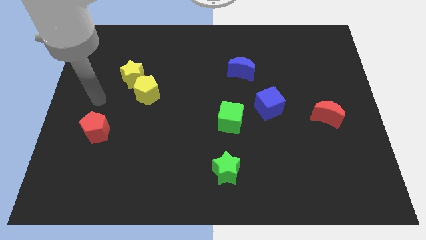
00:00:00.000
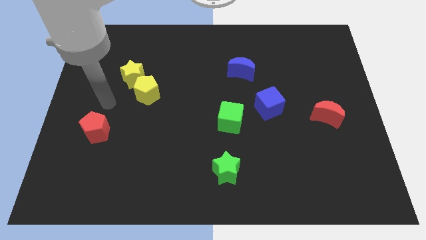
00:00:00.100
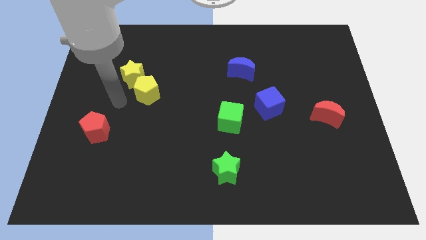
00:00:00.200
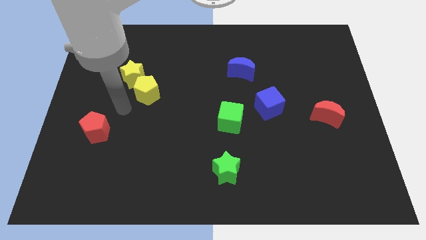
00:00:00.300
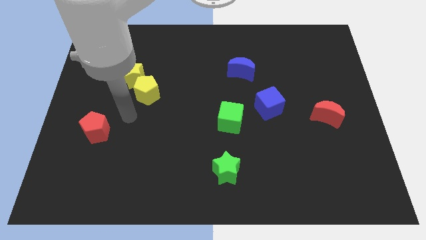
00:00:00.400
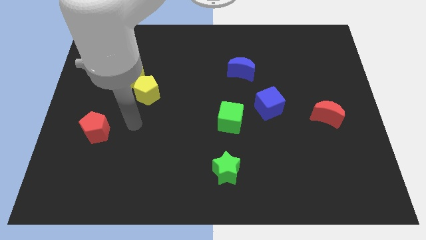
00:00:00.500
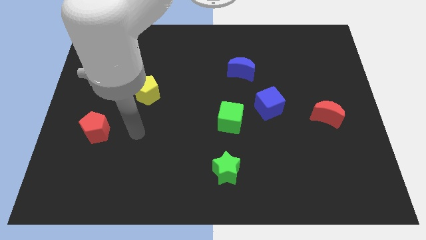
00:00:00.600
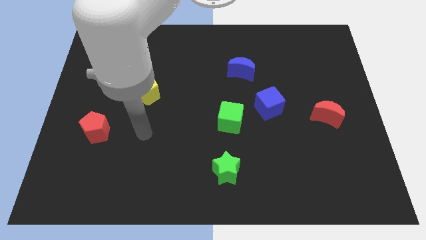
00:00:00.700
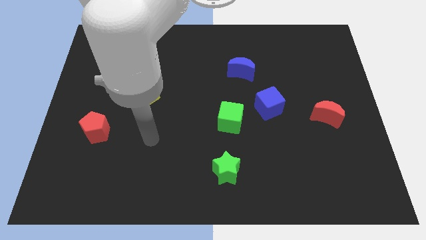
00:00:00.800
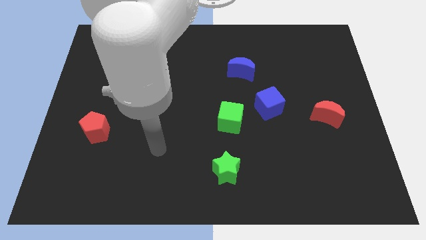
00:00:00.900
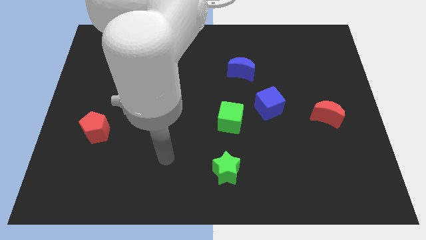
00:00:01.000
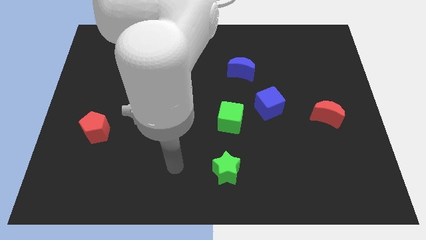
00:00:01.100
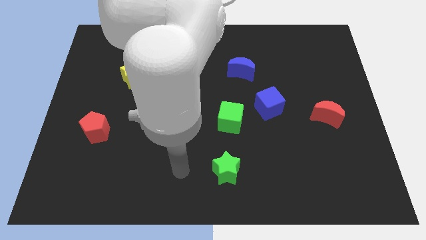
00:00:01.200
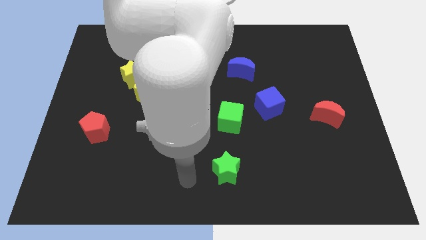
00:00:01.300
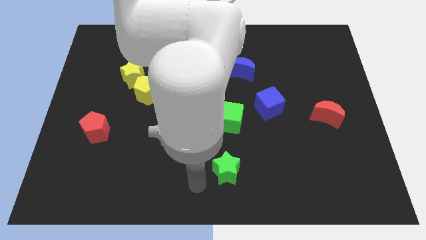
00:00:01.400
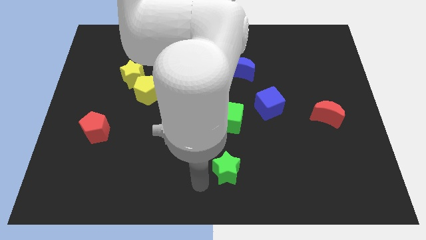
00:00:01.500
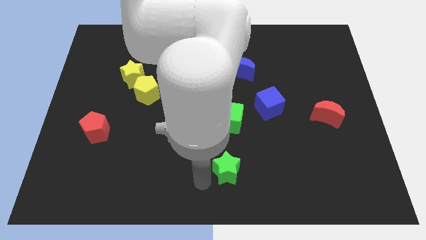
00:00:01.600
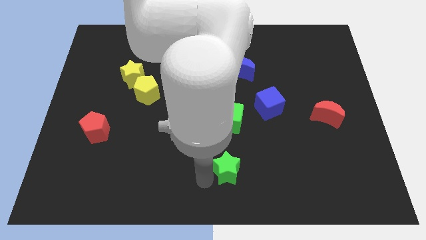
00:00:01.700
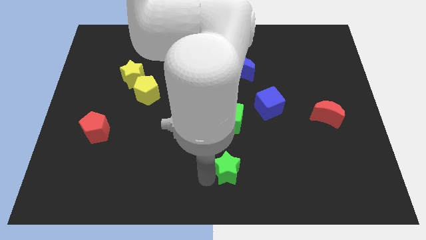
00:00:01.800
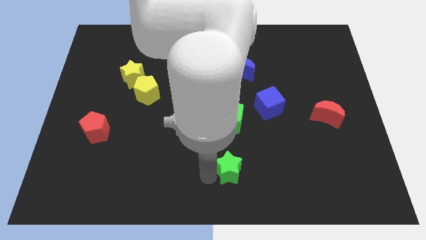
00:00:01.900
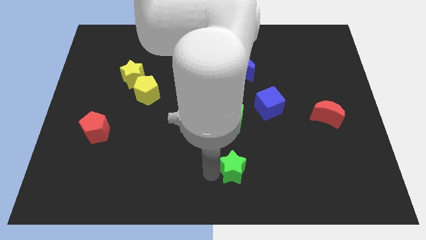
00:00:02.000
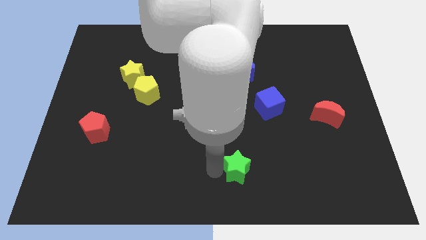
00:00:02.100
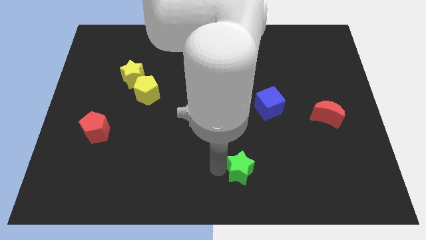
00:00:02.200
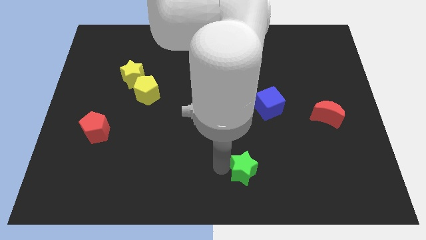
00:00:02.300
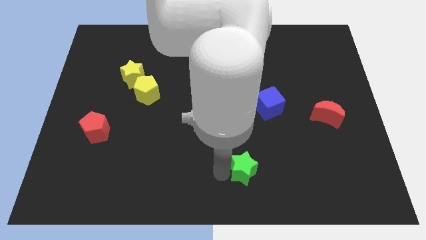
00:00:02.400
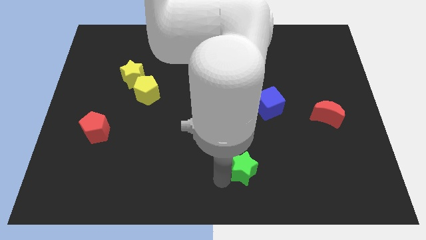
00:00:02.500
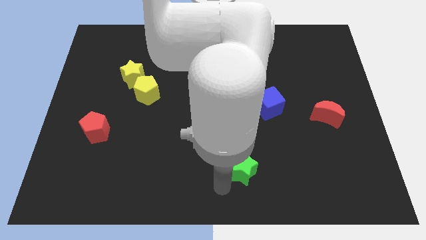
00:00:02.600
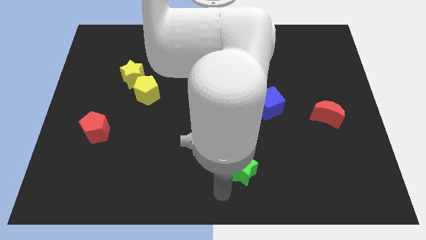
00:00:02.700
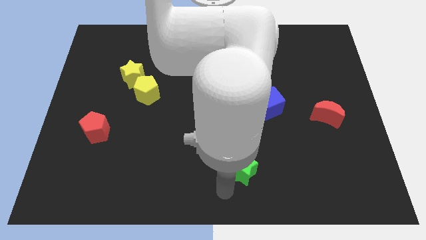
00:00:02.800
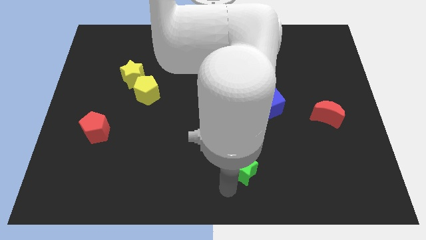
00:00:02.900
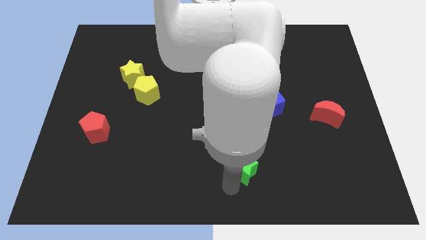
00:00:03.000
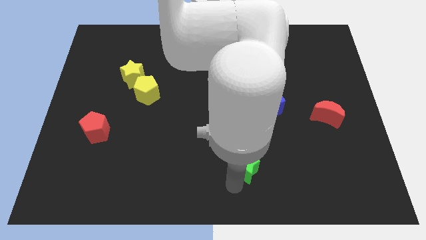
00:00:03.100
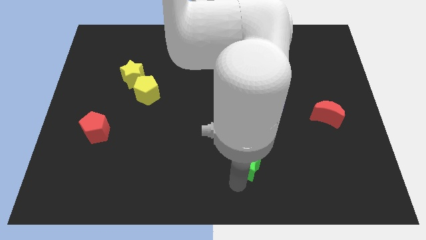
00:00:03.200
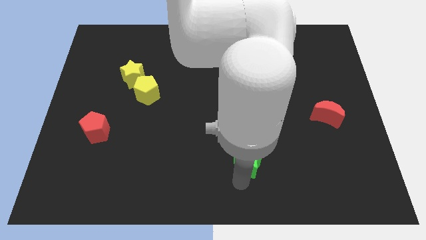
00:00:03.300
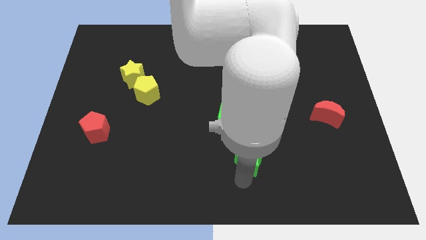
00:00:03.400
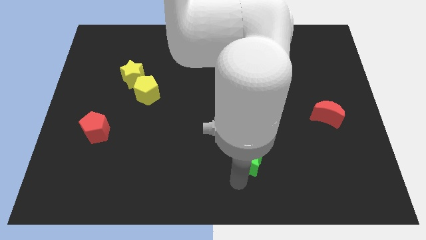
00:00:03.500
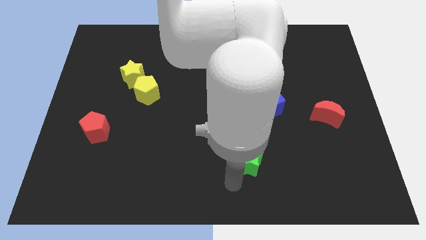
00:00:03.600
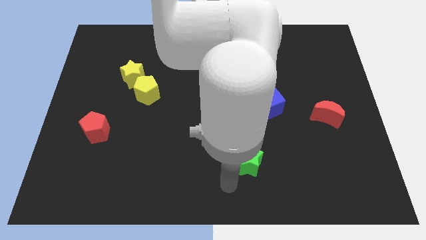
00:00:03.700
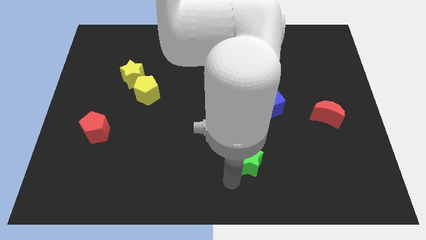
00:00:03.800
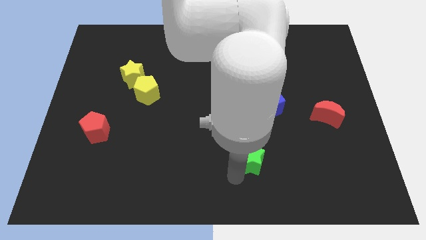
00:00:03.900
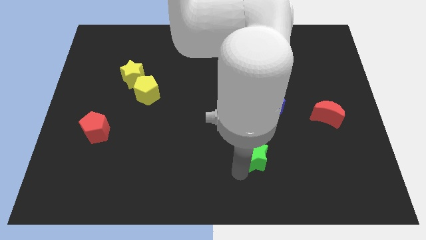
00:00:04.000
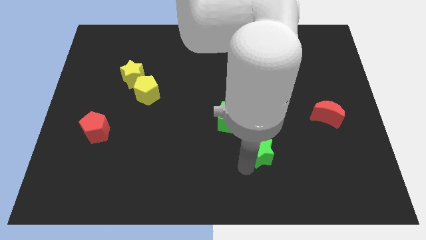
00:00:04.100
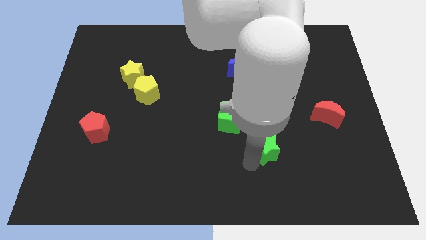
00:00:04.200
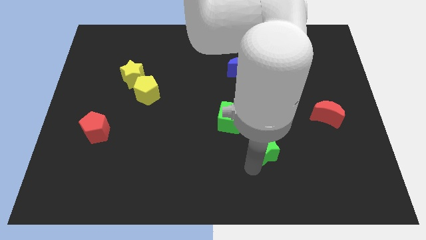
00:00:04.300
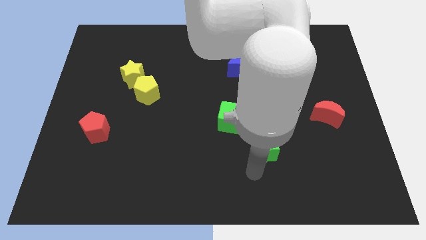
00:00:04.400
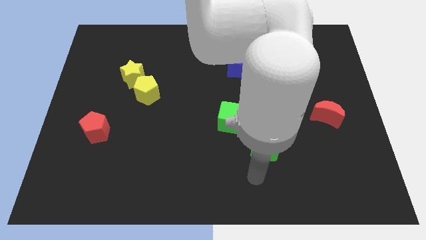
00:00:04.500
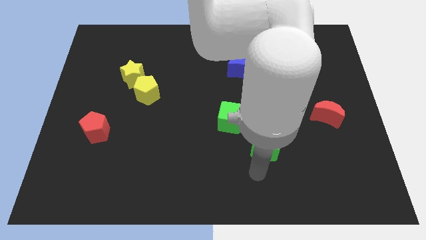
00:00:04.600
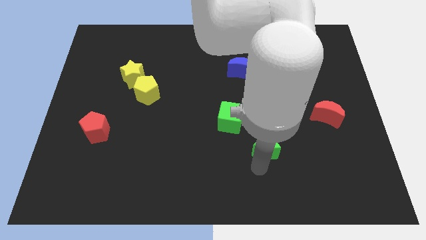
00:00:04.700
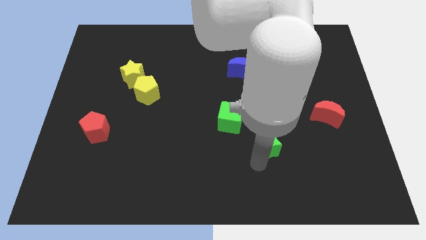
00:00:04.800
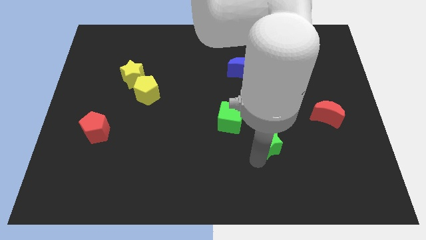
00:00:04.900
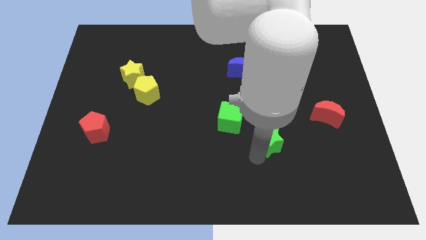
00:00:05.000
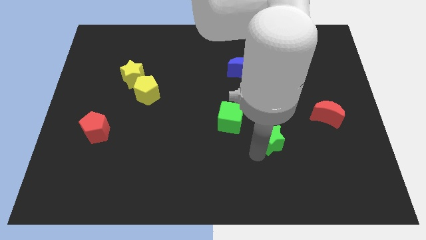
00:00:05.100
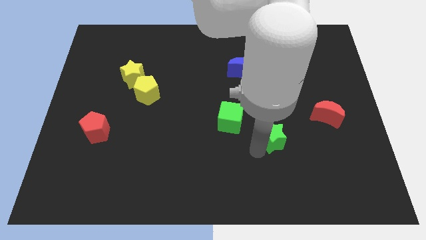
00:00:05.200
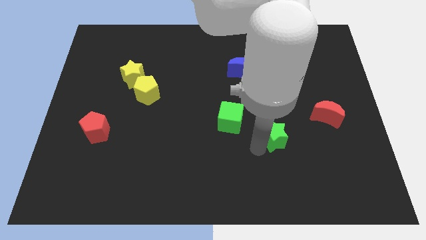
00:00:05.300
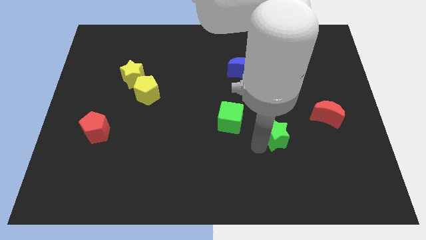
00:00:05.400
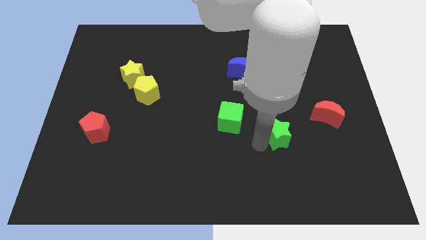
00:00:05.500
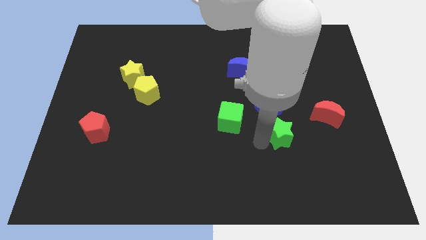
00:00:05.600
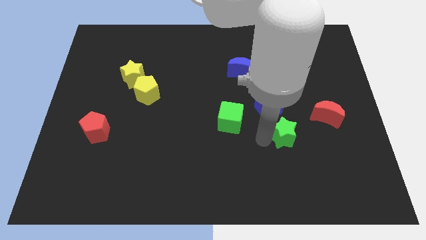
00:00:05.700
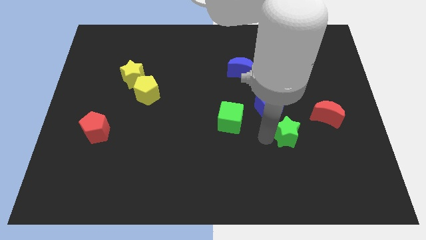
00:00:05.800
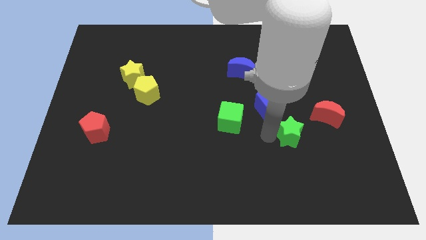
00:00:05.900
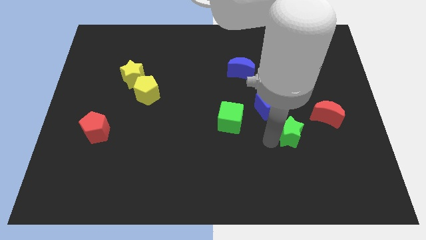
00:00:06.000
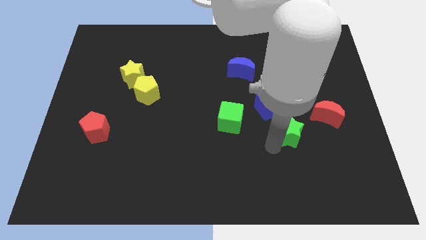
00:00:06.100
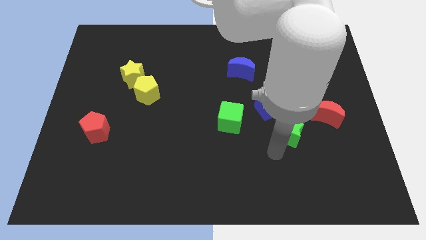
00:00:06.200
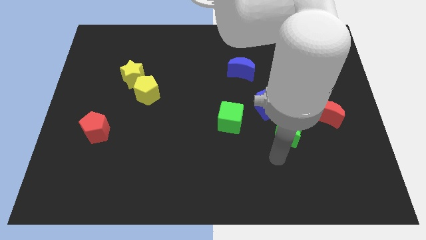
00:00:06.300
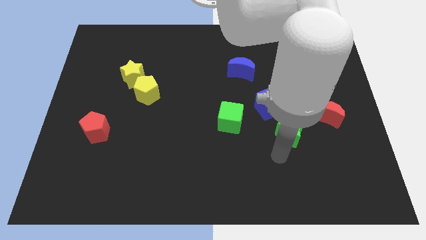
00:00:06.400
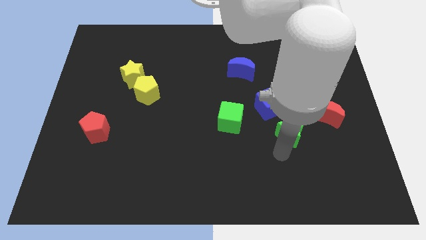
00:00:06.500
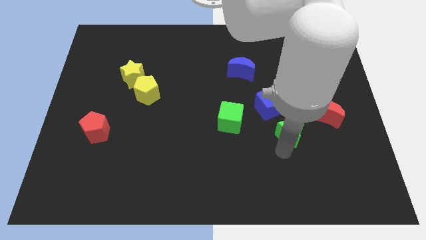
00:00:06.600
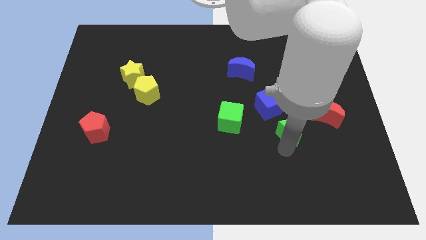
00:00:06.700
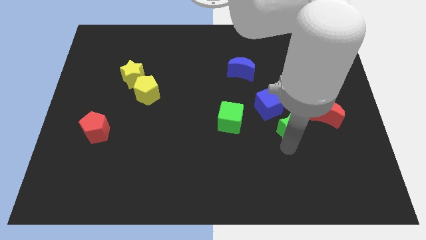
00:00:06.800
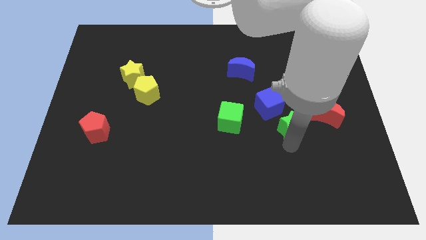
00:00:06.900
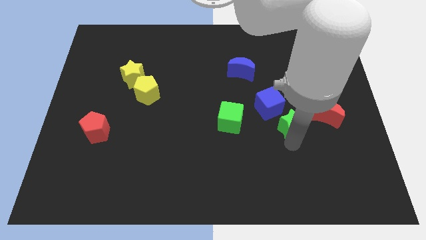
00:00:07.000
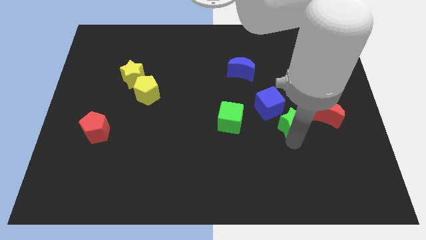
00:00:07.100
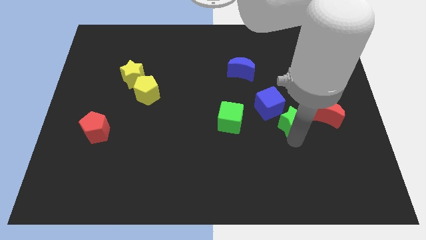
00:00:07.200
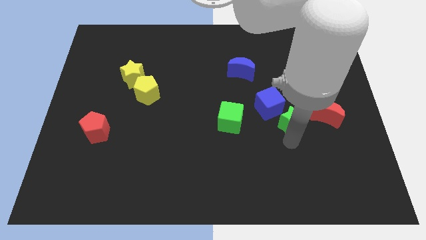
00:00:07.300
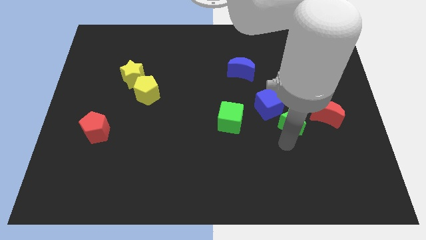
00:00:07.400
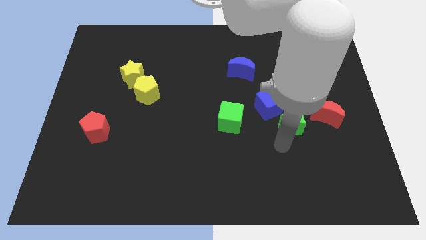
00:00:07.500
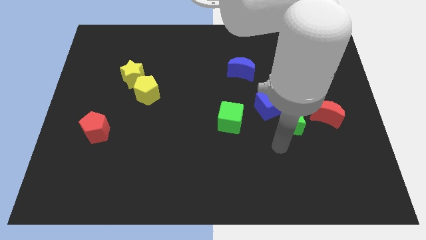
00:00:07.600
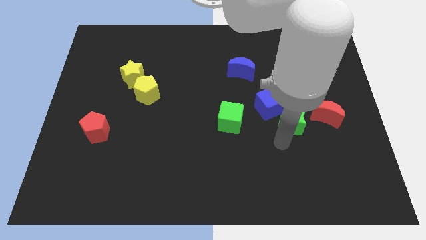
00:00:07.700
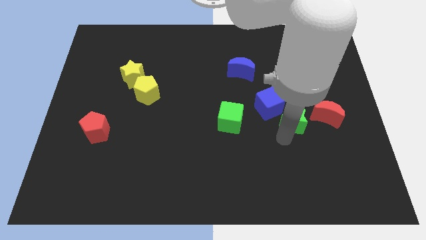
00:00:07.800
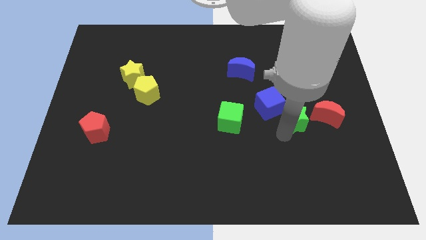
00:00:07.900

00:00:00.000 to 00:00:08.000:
push the green star up and right

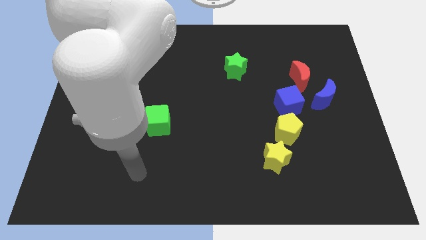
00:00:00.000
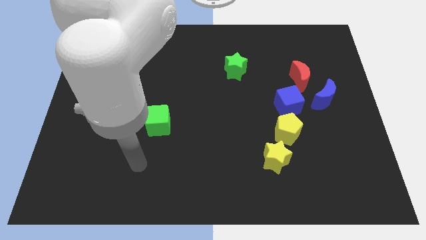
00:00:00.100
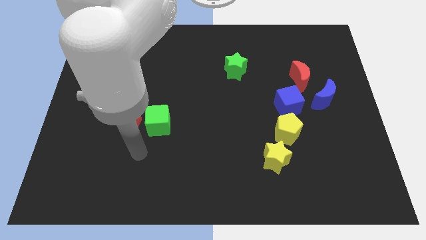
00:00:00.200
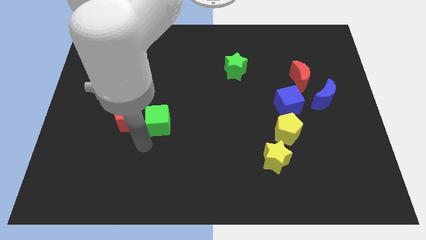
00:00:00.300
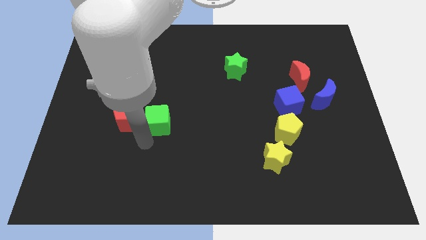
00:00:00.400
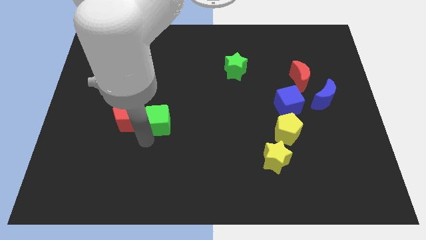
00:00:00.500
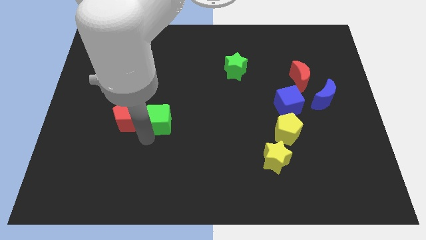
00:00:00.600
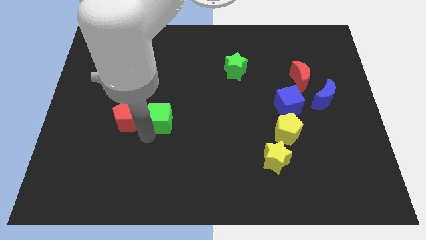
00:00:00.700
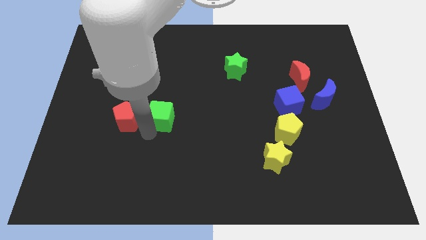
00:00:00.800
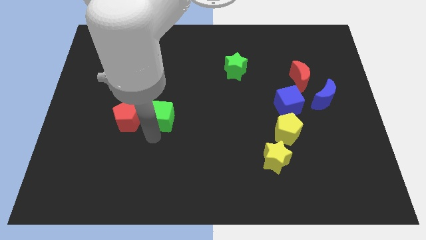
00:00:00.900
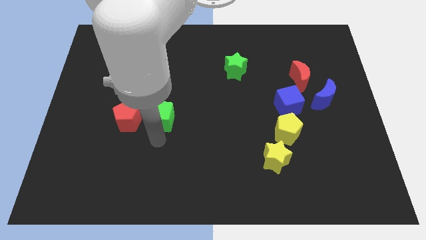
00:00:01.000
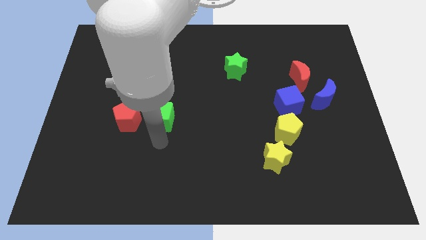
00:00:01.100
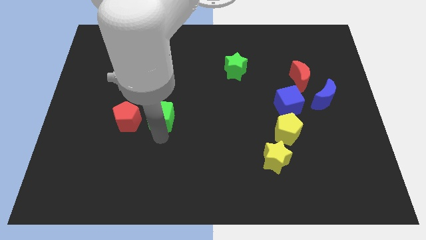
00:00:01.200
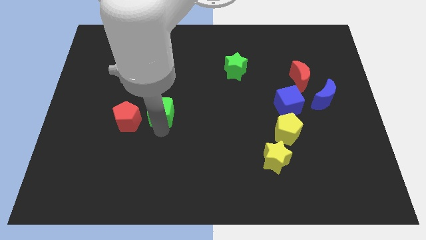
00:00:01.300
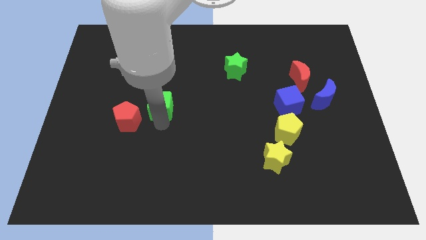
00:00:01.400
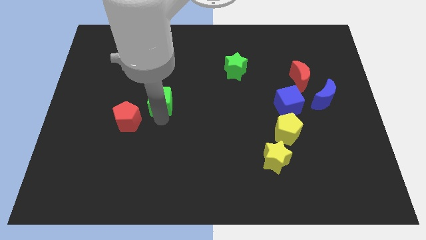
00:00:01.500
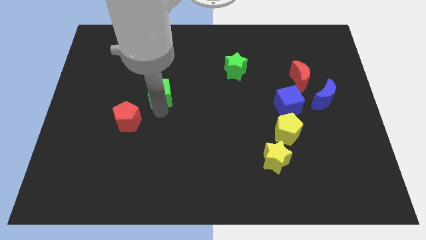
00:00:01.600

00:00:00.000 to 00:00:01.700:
push the green cube upwards a little
